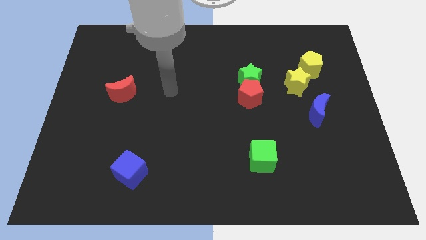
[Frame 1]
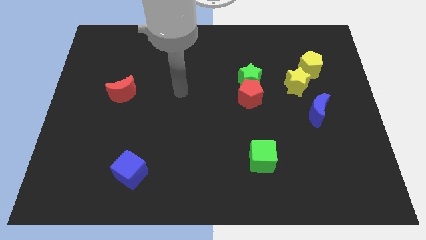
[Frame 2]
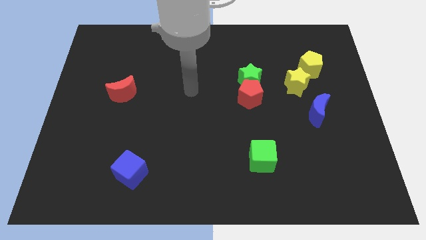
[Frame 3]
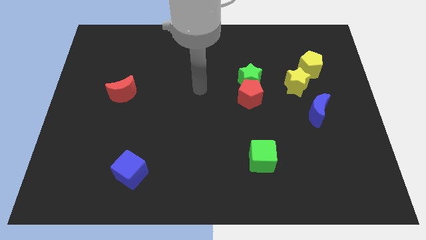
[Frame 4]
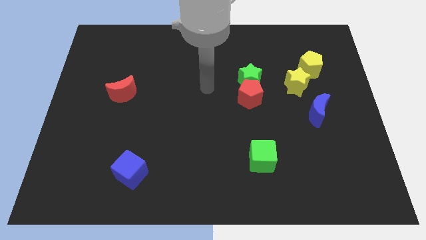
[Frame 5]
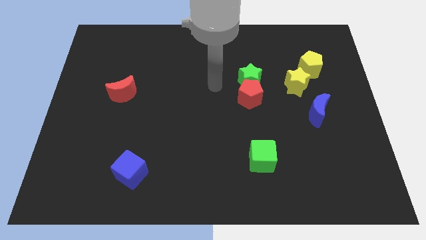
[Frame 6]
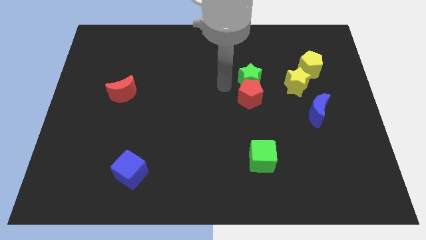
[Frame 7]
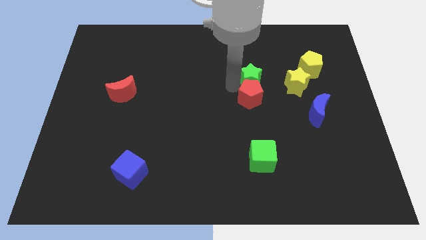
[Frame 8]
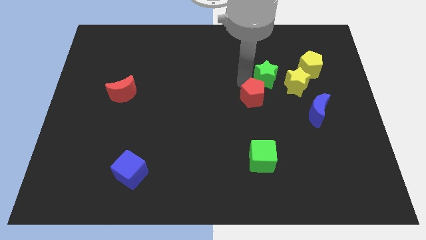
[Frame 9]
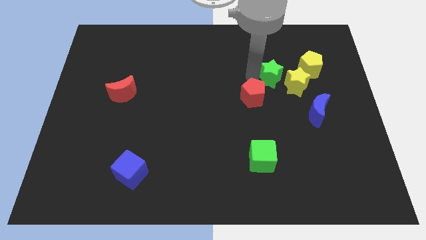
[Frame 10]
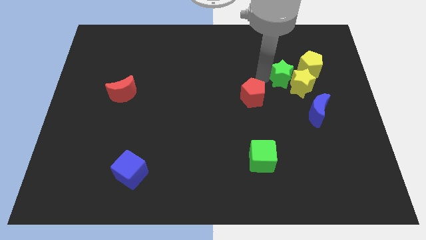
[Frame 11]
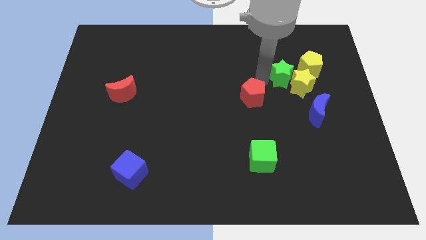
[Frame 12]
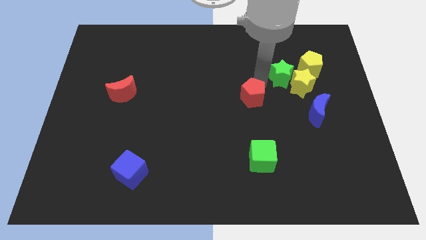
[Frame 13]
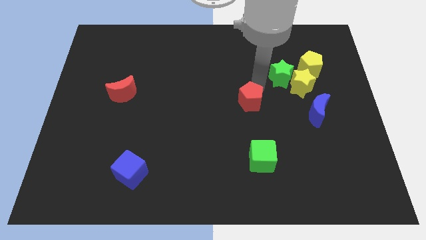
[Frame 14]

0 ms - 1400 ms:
move the red pentagon away from the green star

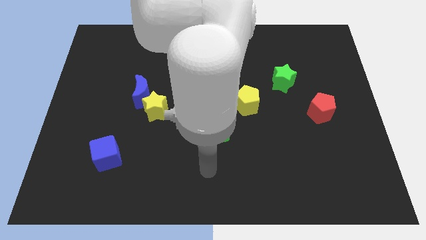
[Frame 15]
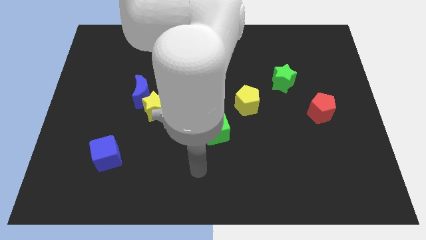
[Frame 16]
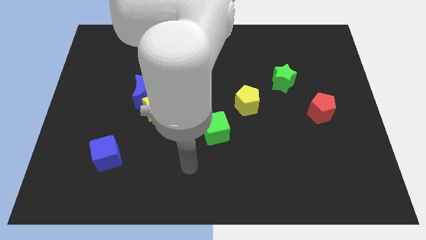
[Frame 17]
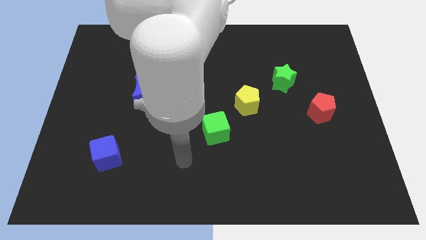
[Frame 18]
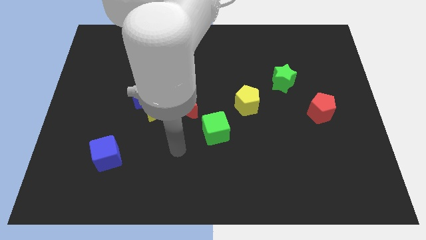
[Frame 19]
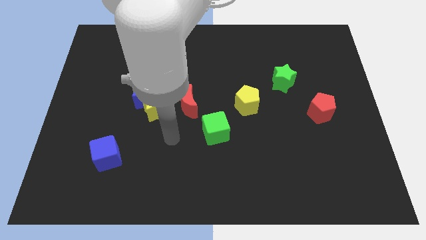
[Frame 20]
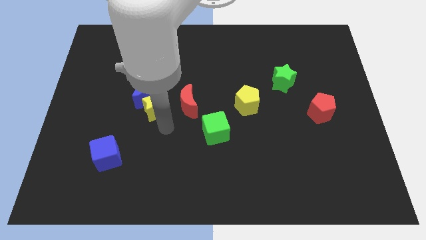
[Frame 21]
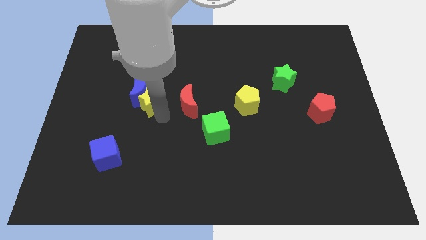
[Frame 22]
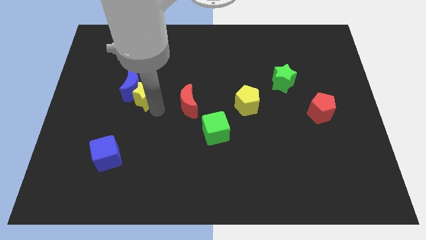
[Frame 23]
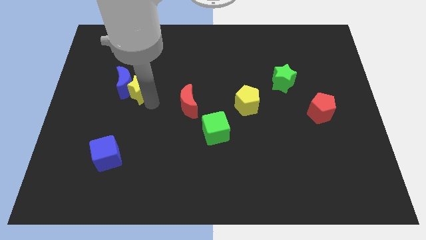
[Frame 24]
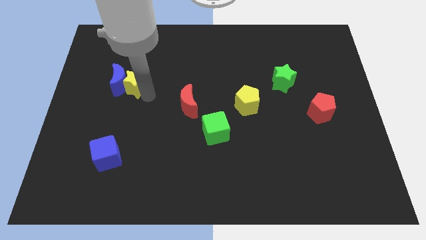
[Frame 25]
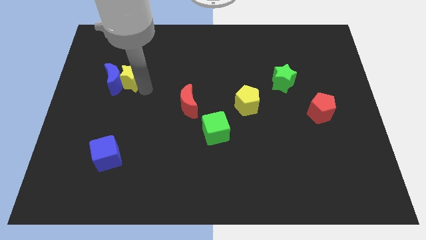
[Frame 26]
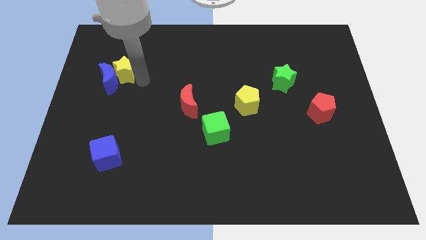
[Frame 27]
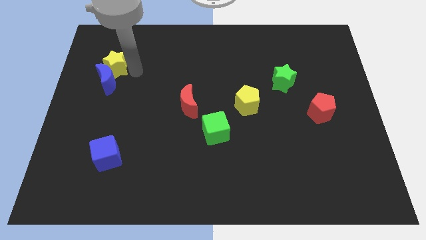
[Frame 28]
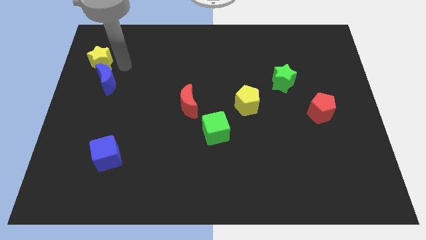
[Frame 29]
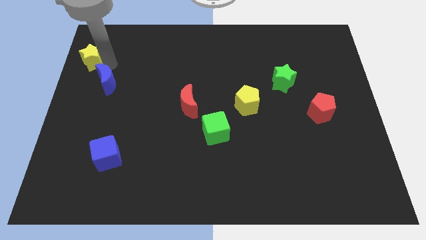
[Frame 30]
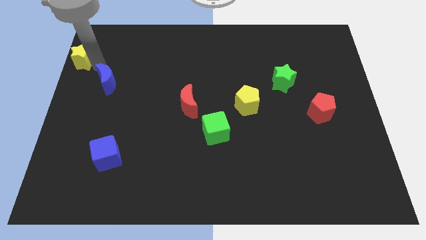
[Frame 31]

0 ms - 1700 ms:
pull the blue moon apart from the yellow star

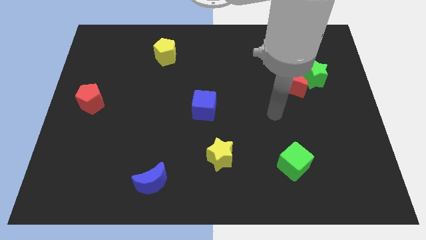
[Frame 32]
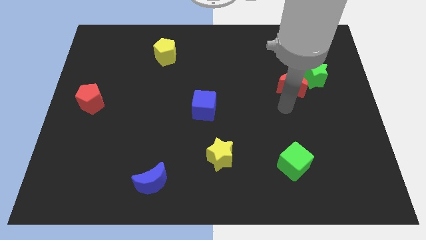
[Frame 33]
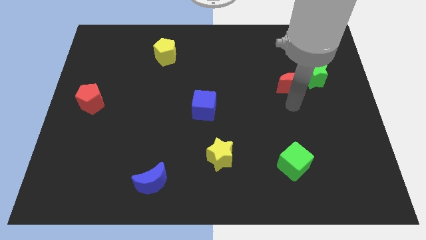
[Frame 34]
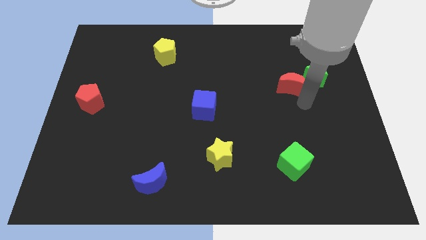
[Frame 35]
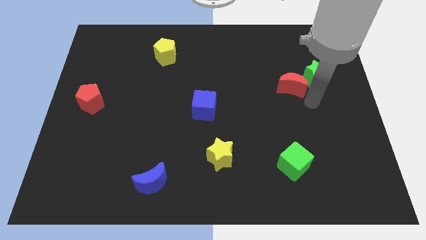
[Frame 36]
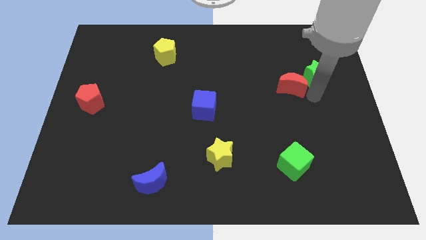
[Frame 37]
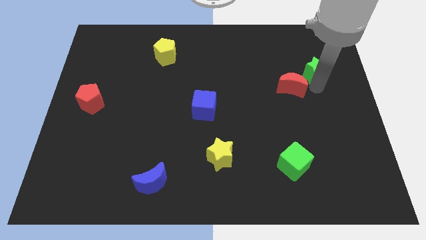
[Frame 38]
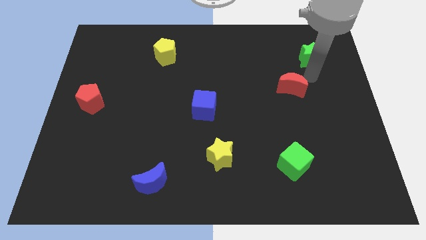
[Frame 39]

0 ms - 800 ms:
separate the red moon from the green star

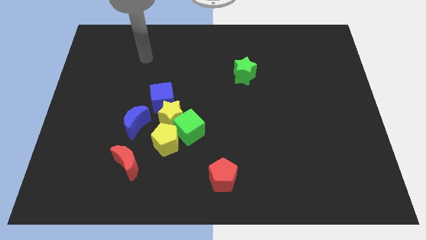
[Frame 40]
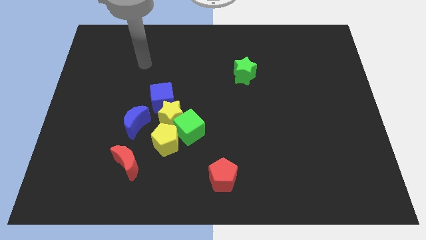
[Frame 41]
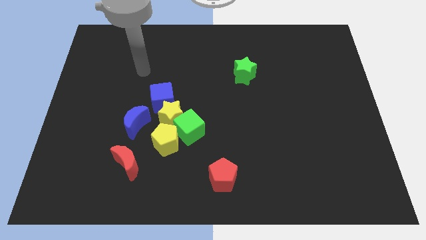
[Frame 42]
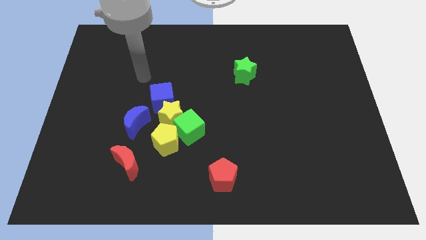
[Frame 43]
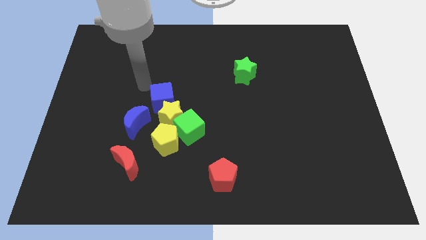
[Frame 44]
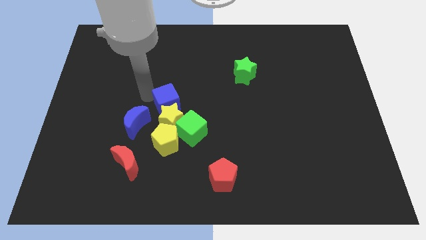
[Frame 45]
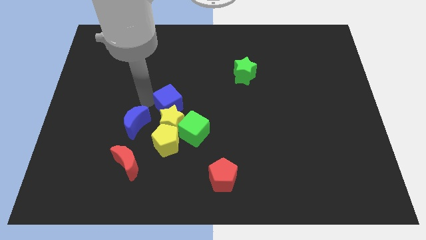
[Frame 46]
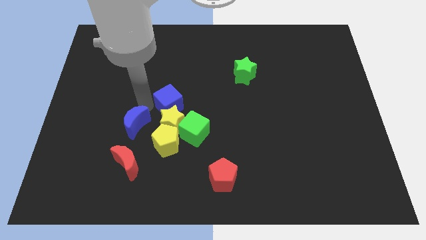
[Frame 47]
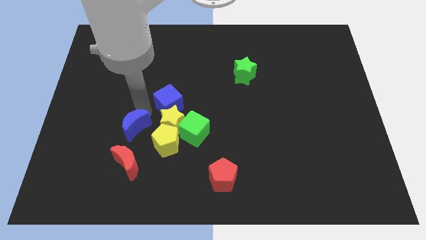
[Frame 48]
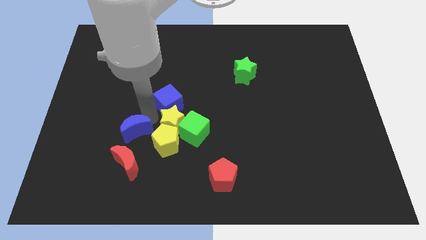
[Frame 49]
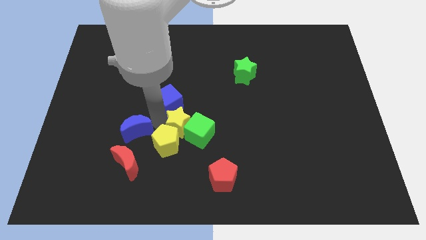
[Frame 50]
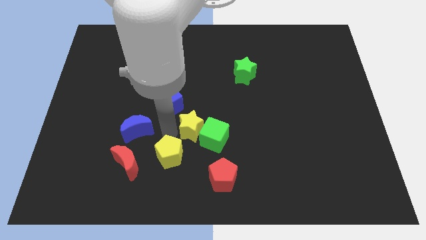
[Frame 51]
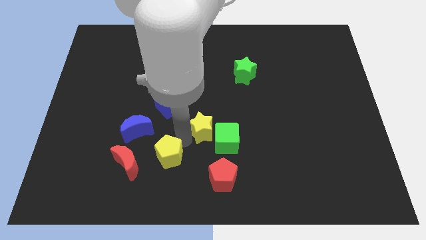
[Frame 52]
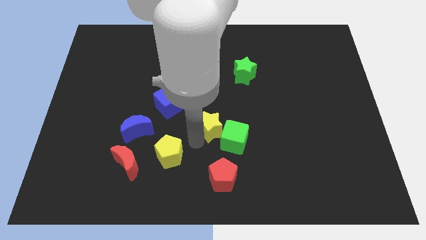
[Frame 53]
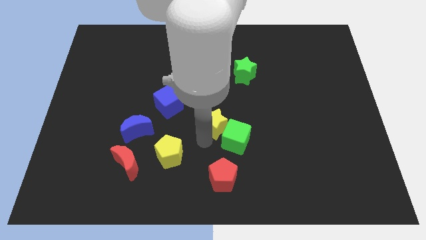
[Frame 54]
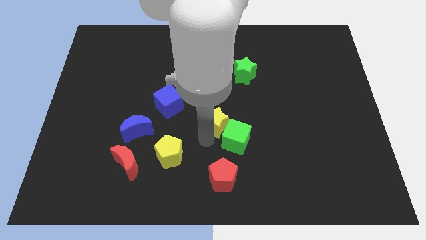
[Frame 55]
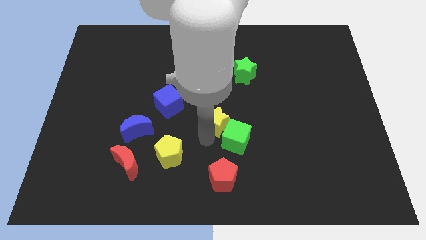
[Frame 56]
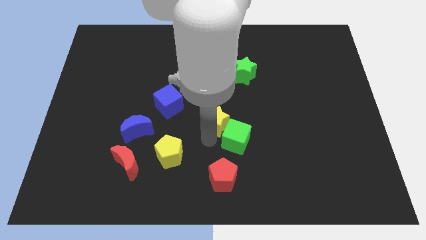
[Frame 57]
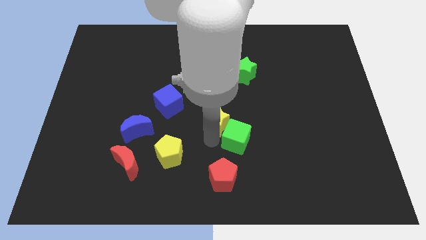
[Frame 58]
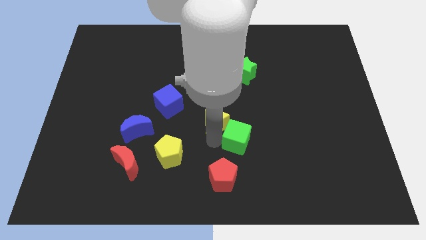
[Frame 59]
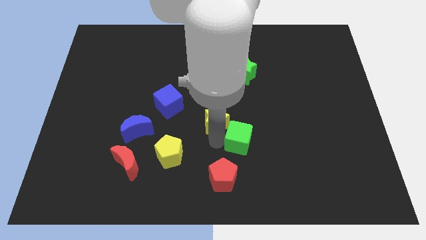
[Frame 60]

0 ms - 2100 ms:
move the green cube away from the yellow star and yellow pentagon

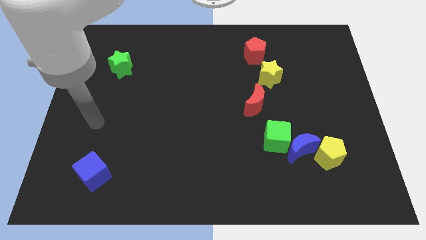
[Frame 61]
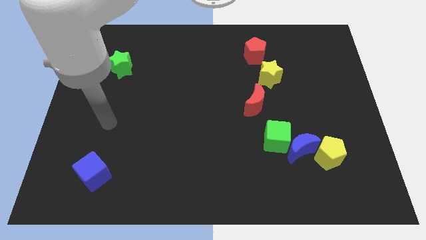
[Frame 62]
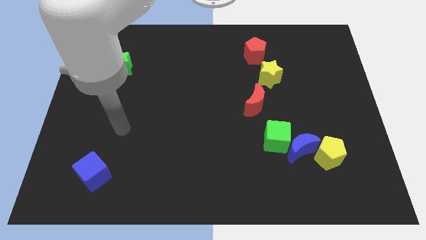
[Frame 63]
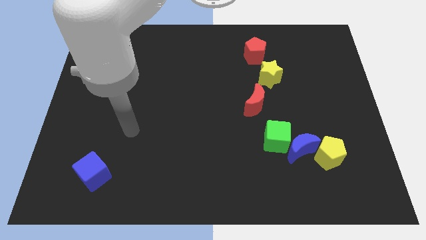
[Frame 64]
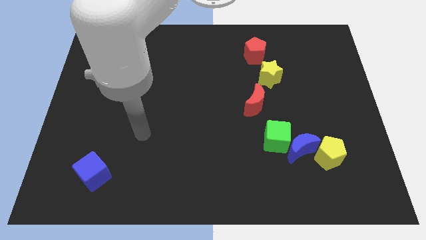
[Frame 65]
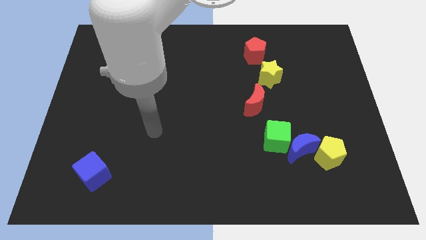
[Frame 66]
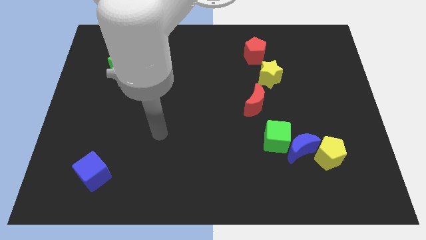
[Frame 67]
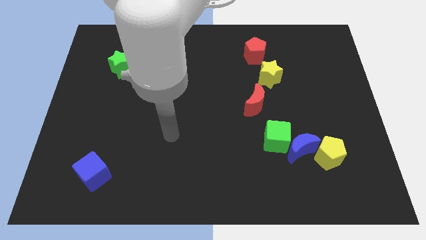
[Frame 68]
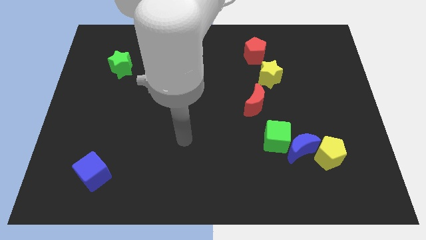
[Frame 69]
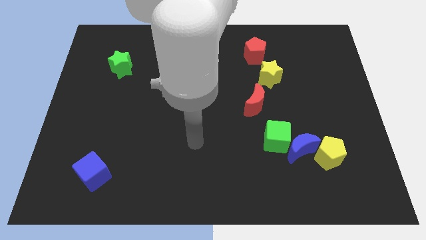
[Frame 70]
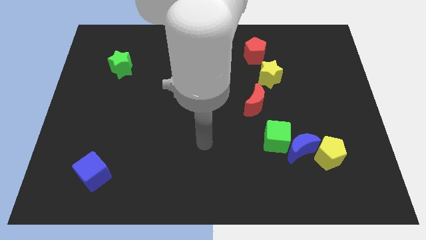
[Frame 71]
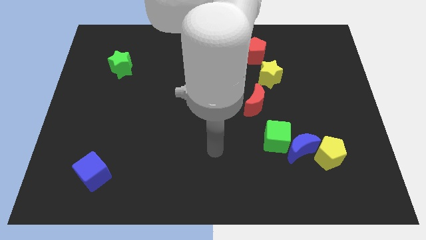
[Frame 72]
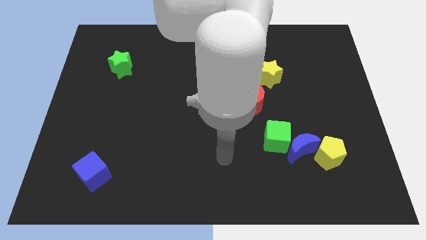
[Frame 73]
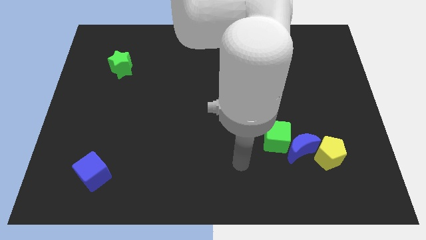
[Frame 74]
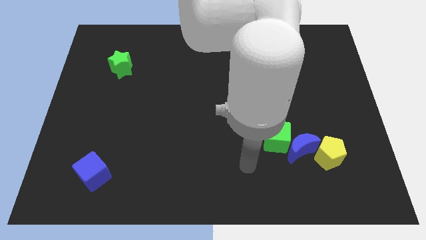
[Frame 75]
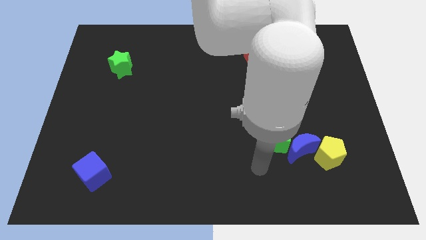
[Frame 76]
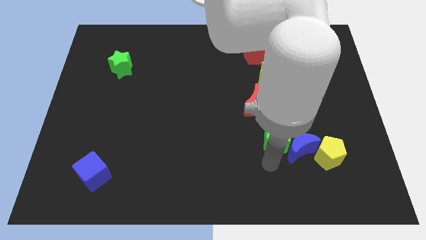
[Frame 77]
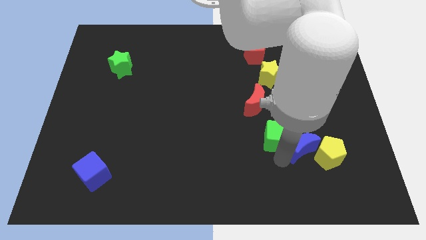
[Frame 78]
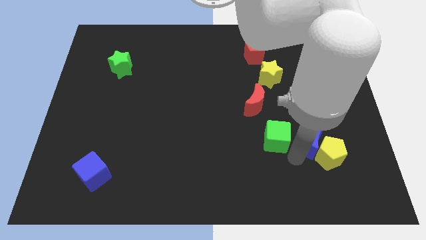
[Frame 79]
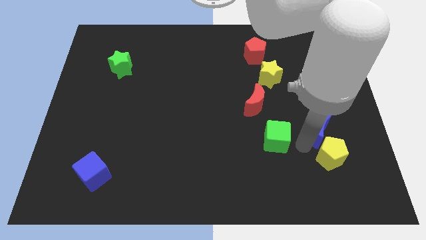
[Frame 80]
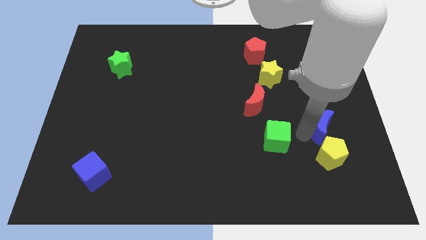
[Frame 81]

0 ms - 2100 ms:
separate the green cube from the blue moon

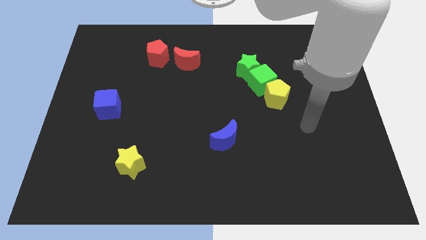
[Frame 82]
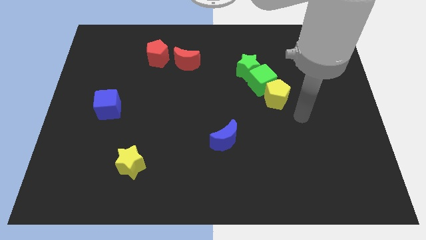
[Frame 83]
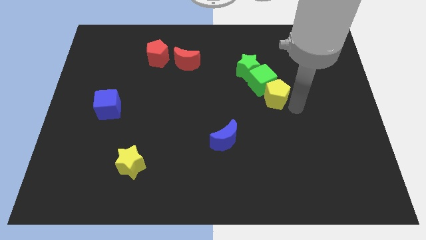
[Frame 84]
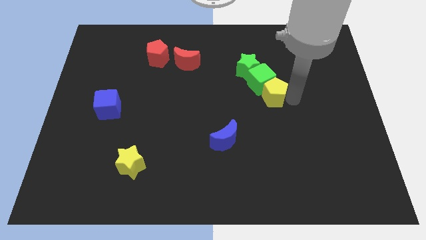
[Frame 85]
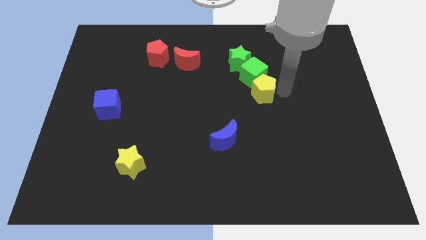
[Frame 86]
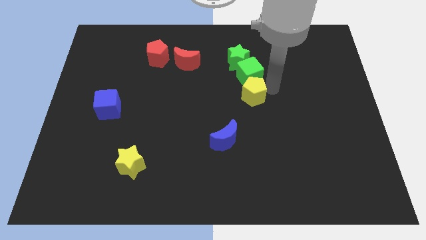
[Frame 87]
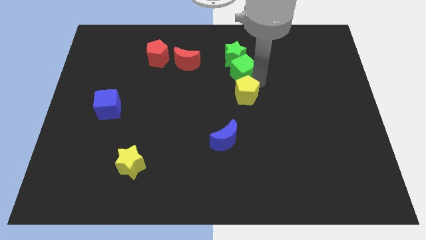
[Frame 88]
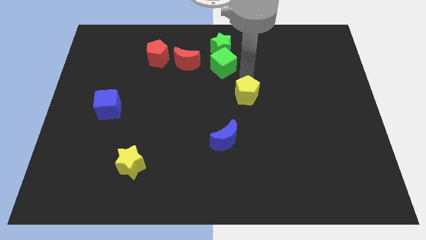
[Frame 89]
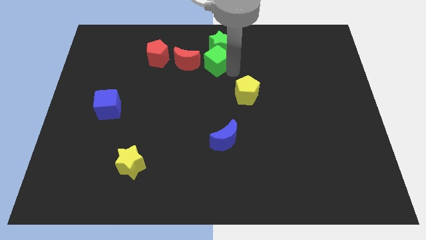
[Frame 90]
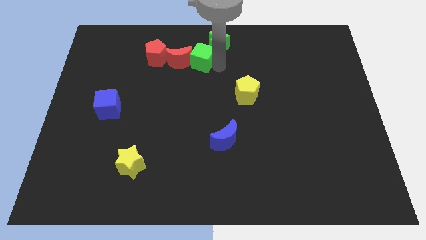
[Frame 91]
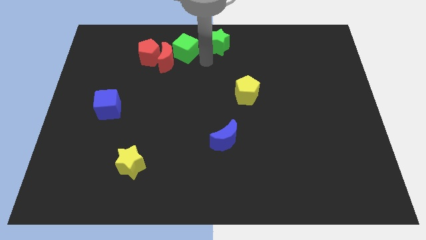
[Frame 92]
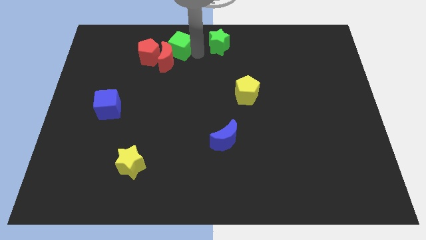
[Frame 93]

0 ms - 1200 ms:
separate the green star from the green cube
